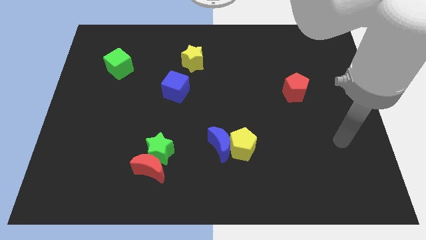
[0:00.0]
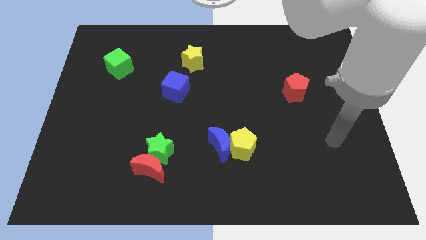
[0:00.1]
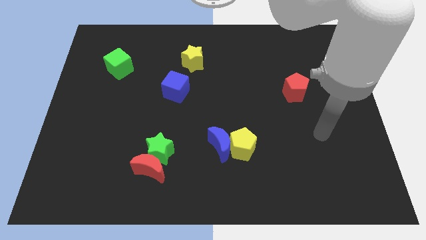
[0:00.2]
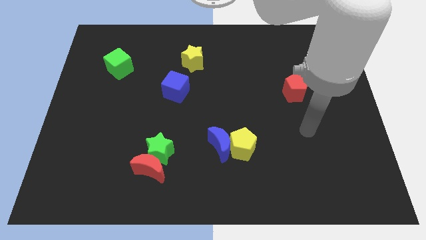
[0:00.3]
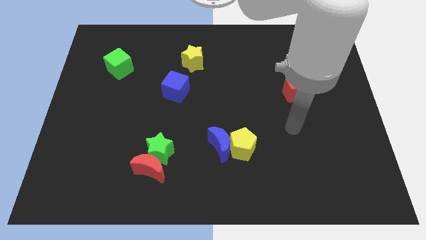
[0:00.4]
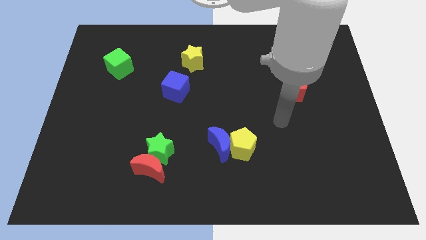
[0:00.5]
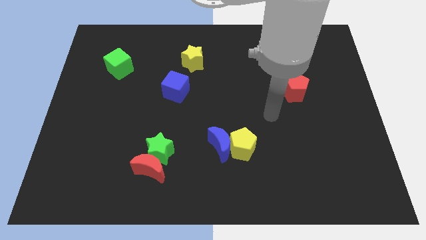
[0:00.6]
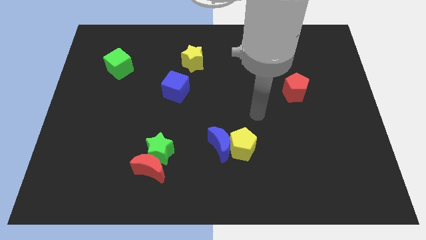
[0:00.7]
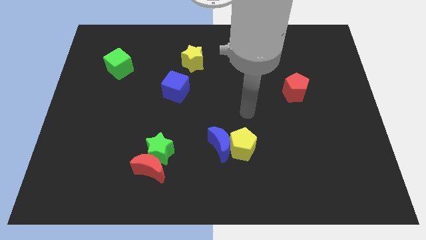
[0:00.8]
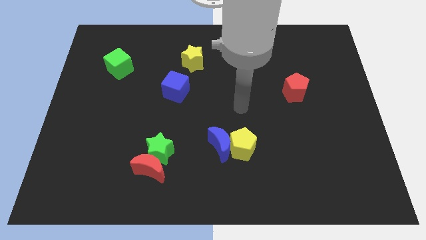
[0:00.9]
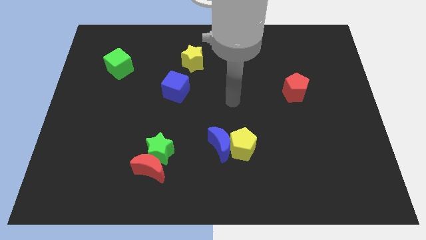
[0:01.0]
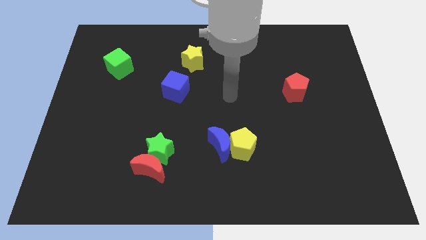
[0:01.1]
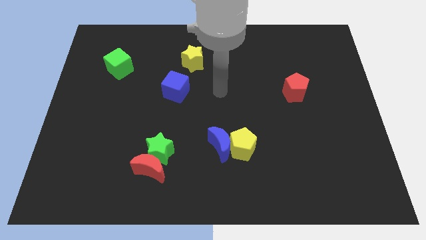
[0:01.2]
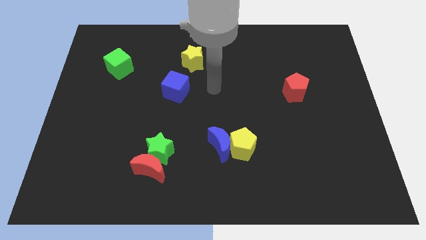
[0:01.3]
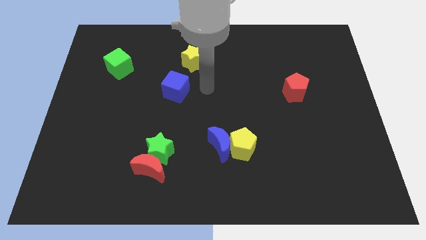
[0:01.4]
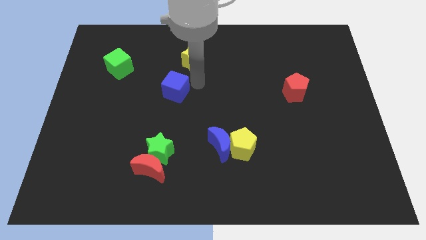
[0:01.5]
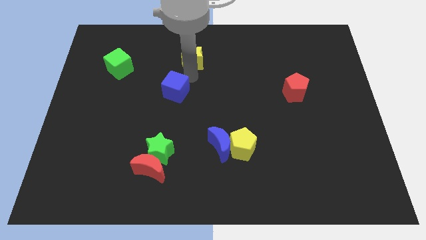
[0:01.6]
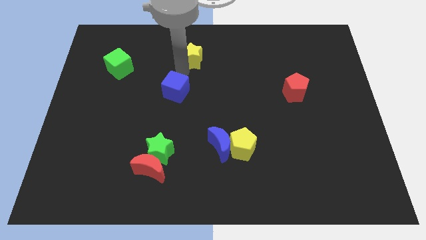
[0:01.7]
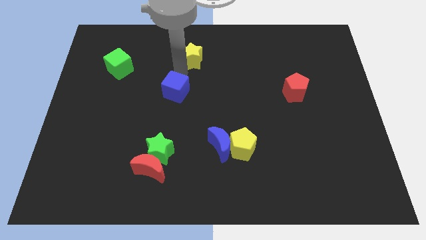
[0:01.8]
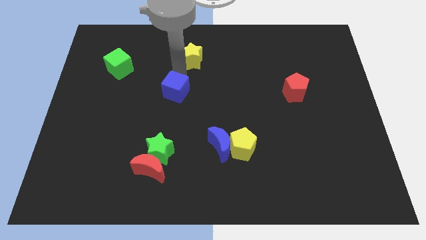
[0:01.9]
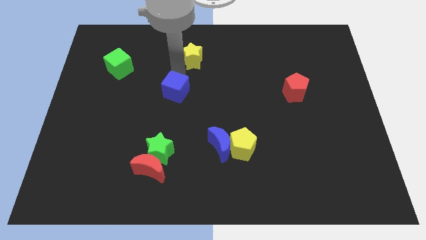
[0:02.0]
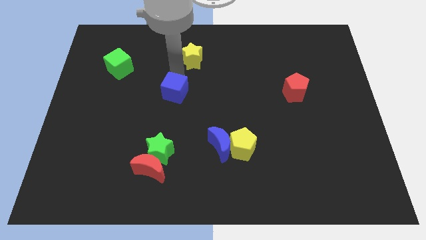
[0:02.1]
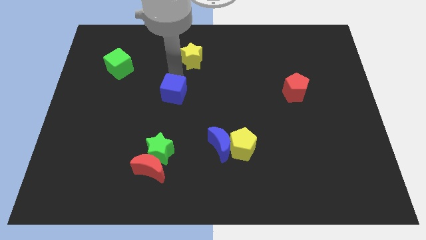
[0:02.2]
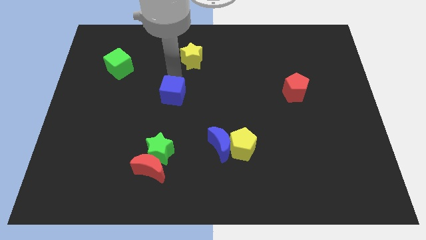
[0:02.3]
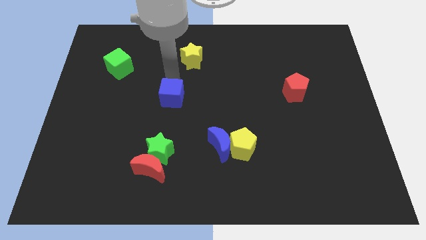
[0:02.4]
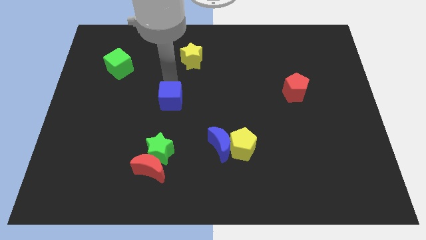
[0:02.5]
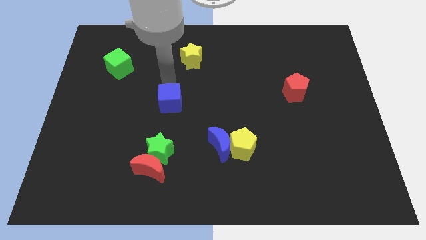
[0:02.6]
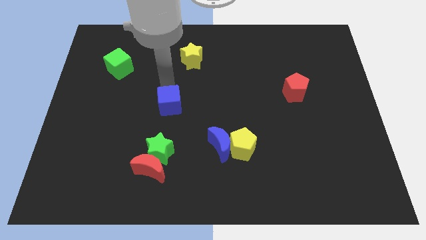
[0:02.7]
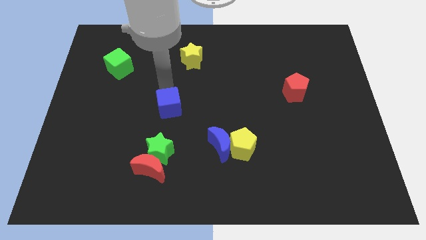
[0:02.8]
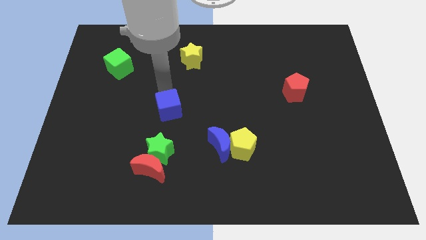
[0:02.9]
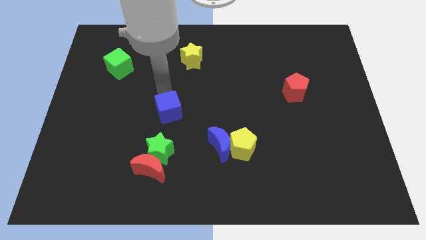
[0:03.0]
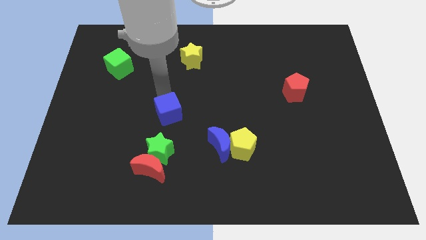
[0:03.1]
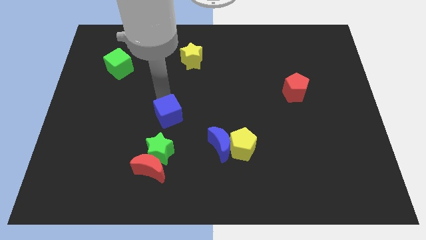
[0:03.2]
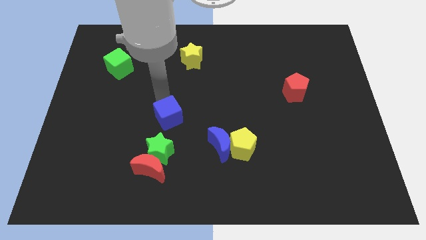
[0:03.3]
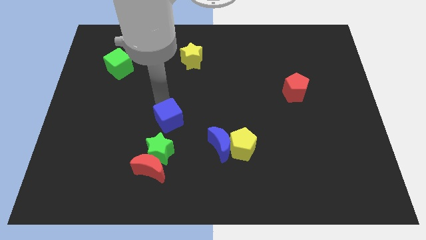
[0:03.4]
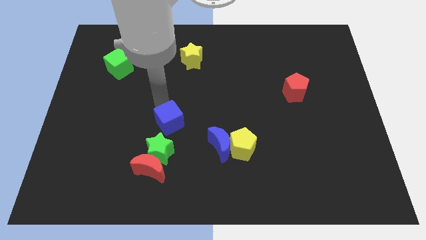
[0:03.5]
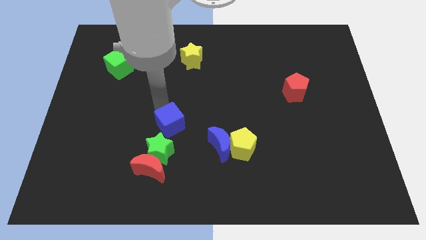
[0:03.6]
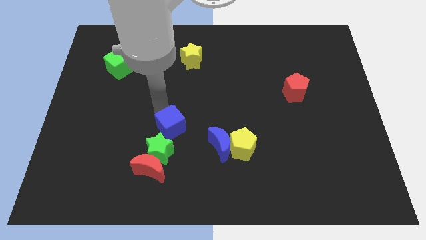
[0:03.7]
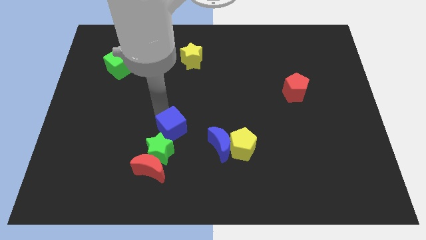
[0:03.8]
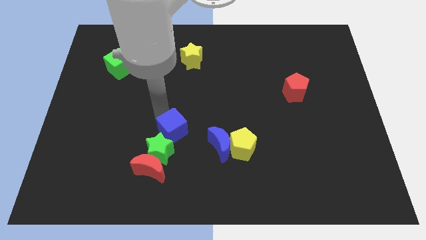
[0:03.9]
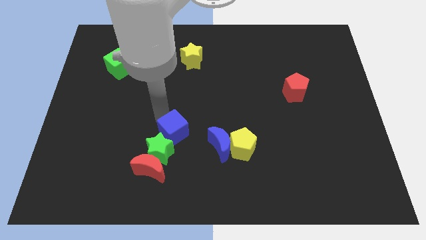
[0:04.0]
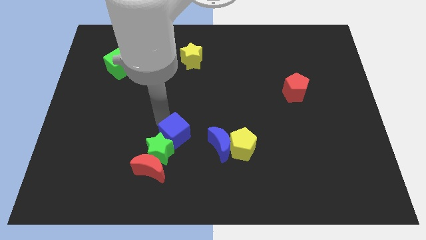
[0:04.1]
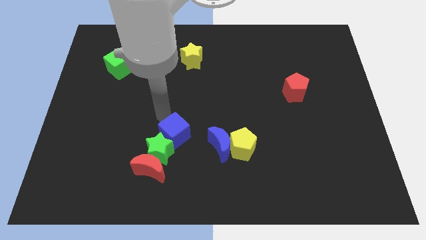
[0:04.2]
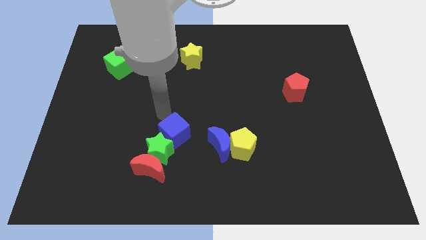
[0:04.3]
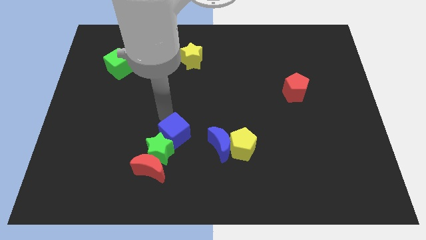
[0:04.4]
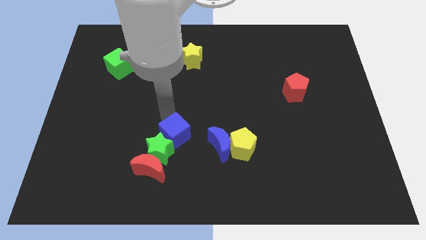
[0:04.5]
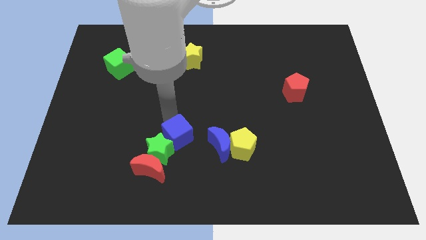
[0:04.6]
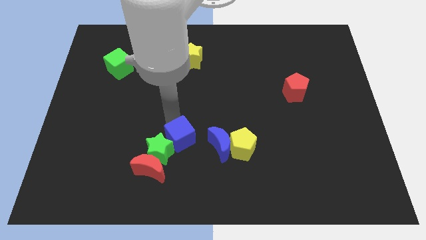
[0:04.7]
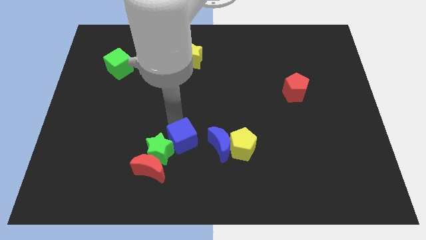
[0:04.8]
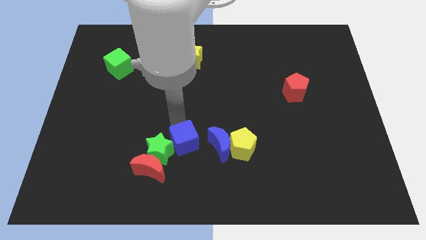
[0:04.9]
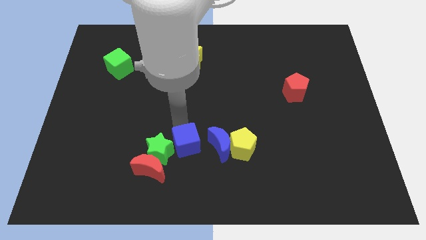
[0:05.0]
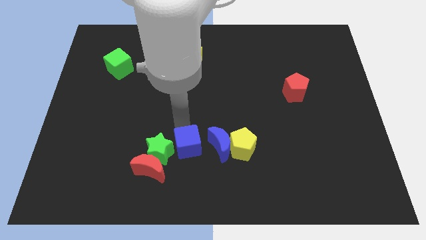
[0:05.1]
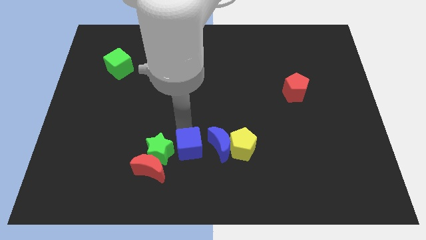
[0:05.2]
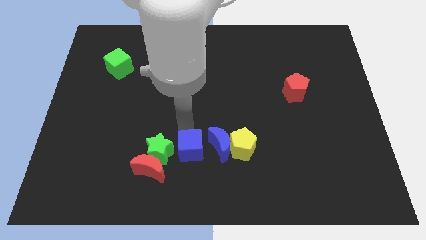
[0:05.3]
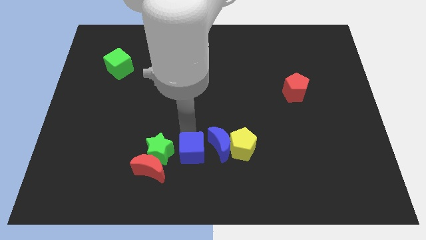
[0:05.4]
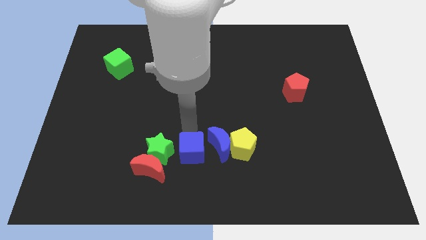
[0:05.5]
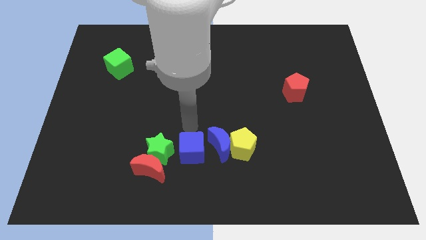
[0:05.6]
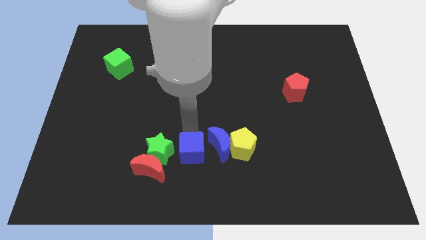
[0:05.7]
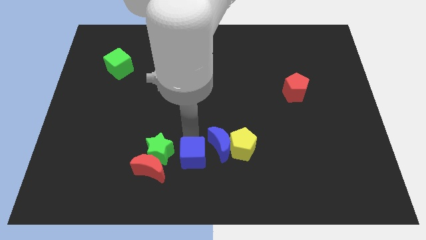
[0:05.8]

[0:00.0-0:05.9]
slide the blue cube to the bottom side
